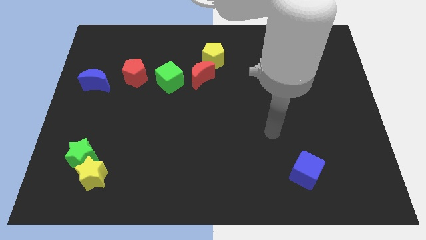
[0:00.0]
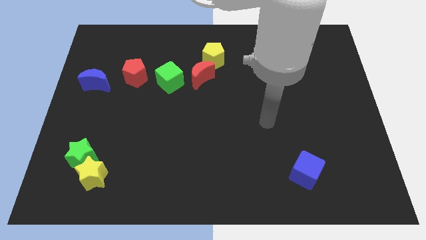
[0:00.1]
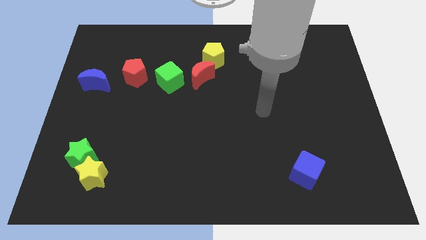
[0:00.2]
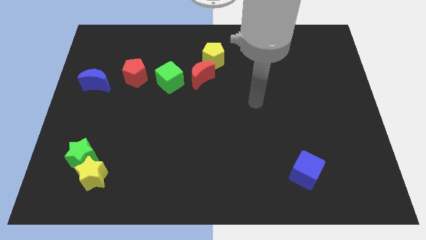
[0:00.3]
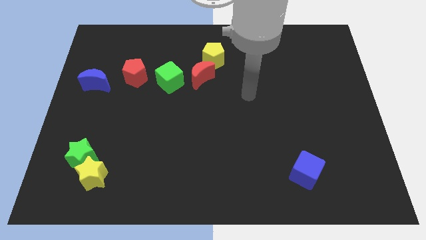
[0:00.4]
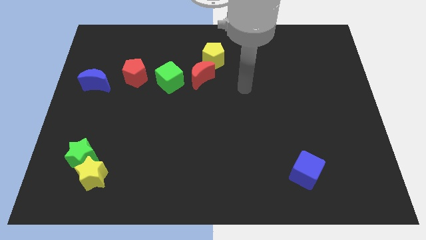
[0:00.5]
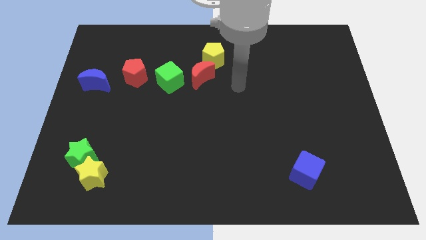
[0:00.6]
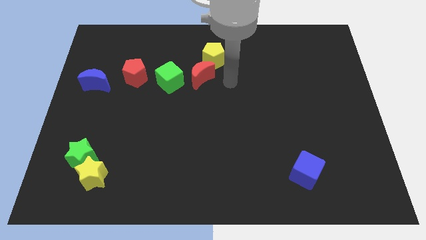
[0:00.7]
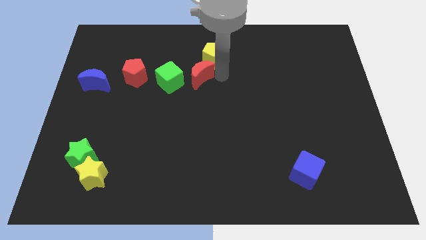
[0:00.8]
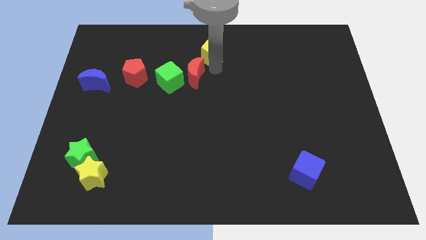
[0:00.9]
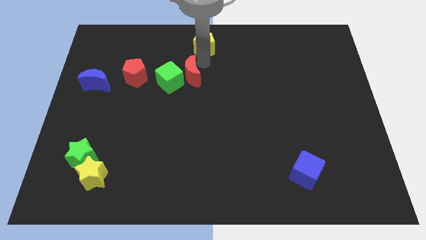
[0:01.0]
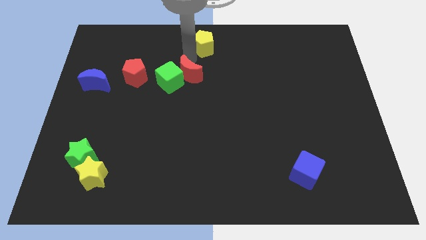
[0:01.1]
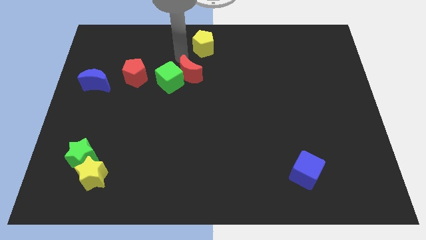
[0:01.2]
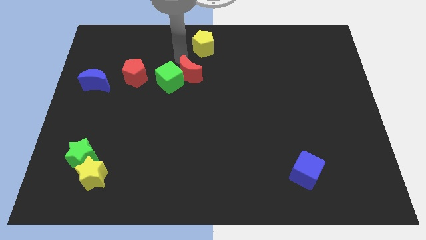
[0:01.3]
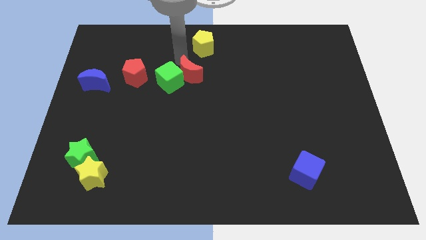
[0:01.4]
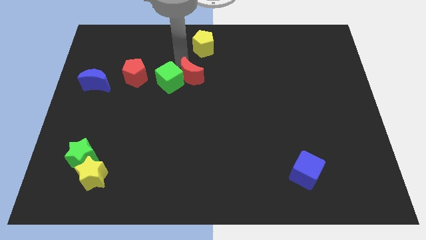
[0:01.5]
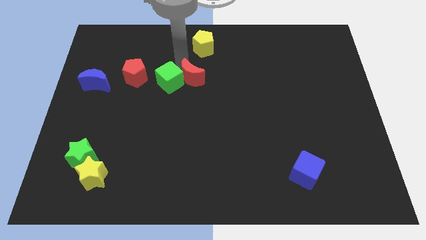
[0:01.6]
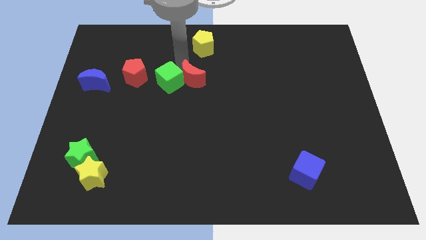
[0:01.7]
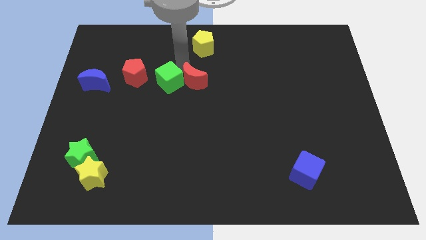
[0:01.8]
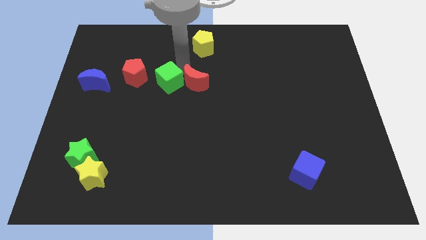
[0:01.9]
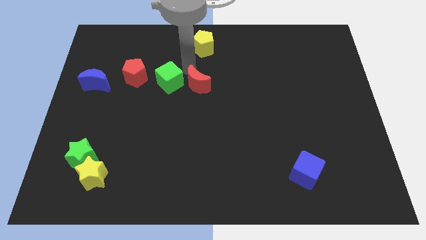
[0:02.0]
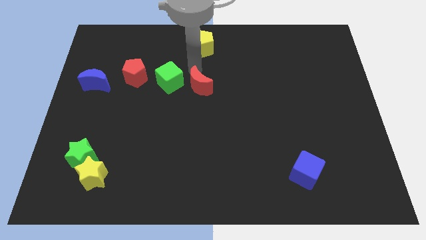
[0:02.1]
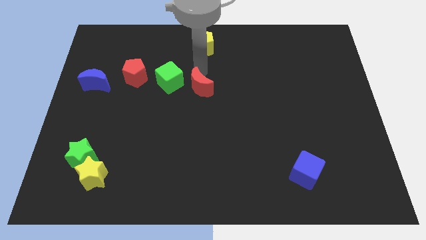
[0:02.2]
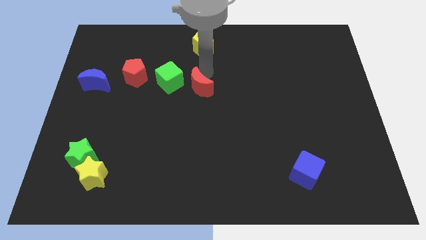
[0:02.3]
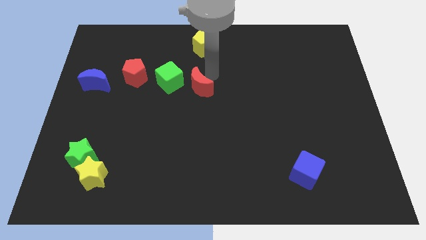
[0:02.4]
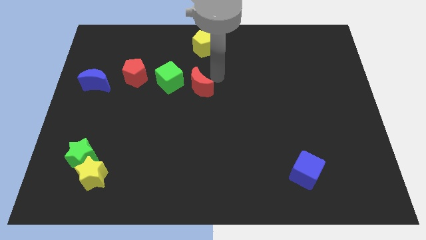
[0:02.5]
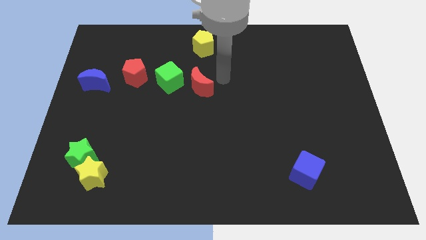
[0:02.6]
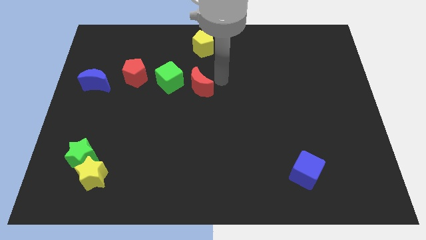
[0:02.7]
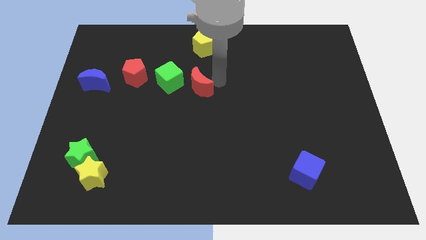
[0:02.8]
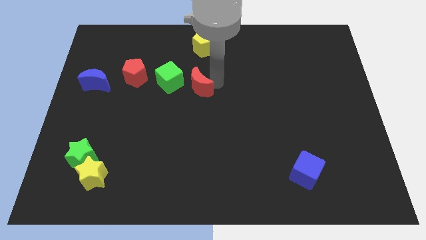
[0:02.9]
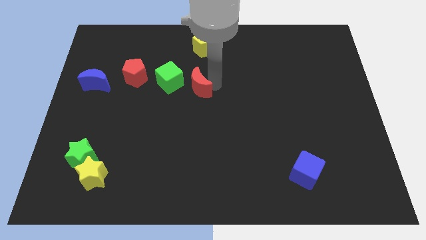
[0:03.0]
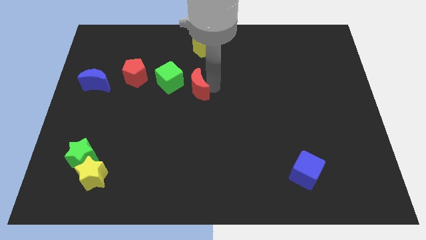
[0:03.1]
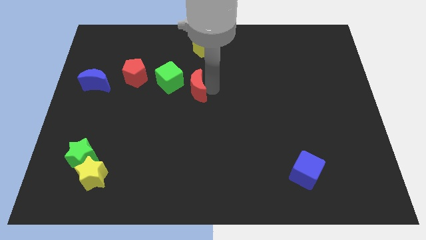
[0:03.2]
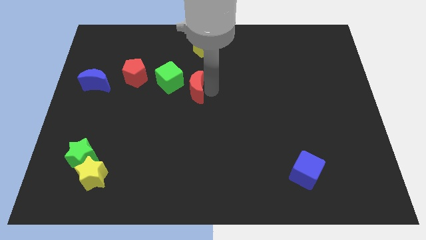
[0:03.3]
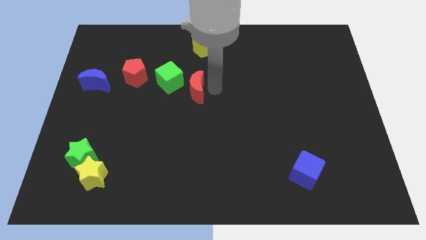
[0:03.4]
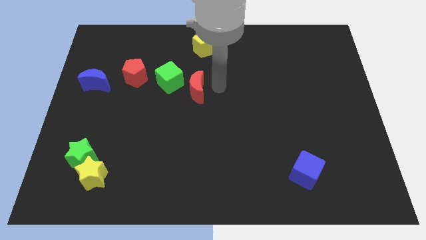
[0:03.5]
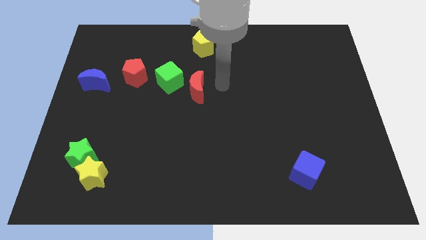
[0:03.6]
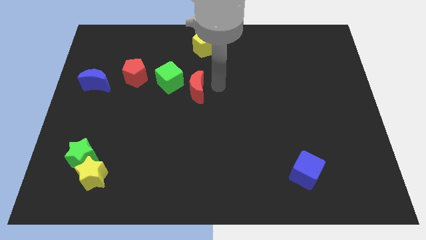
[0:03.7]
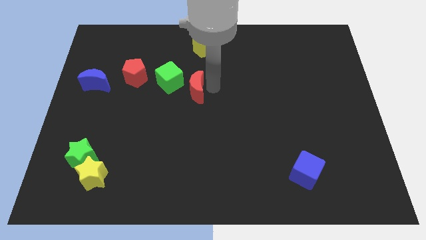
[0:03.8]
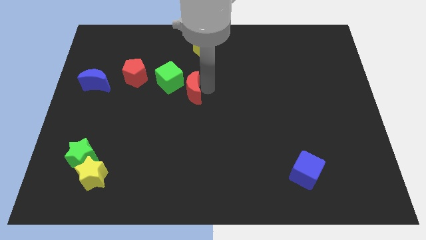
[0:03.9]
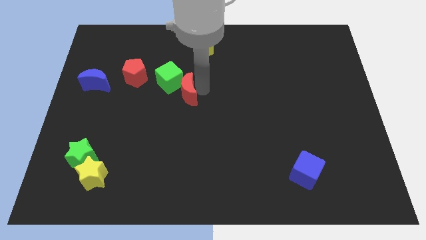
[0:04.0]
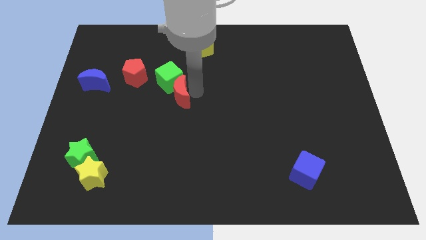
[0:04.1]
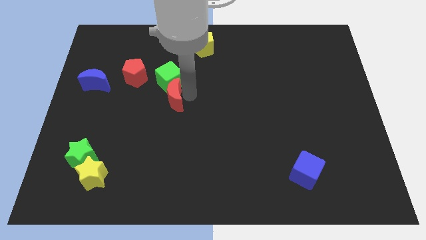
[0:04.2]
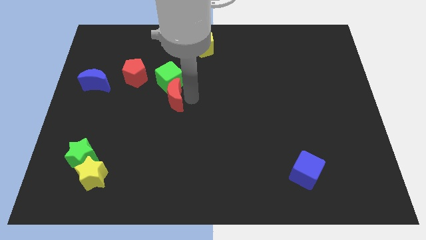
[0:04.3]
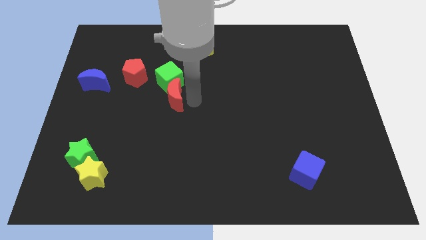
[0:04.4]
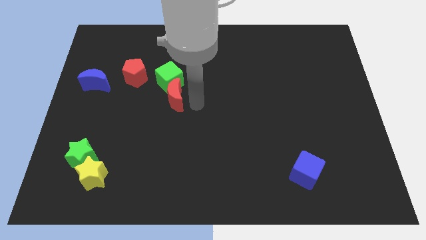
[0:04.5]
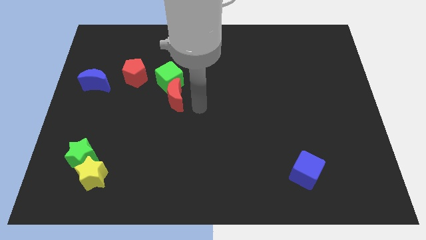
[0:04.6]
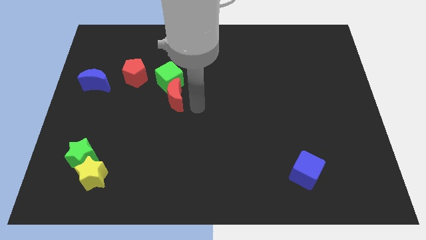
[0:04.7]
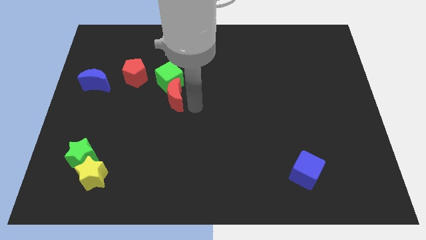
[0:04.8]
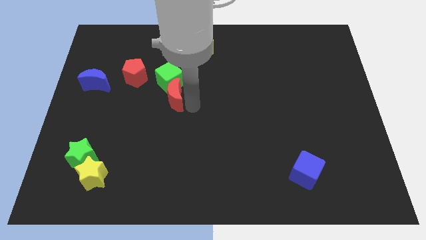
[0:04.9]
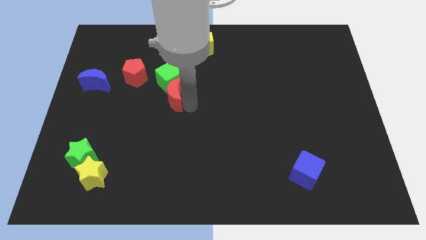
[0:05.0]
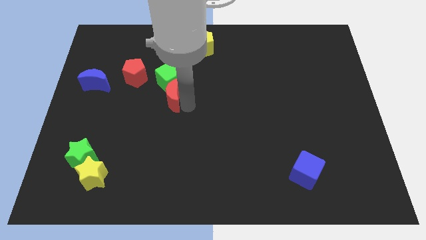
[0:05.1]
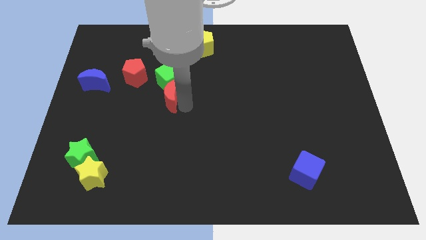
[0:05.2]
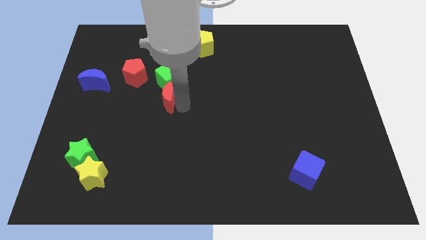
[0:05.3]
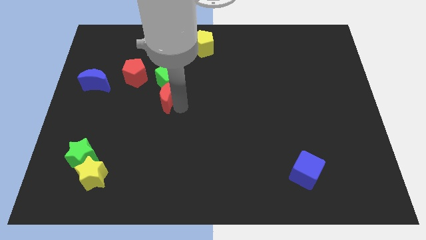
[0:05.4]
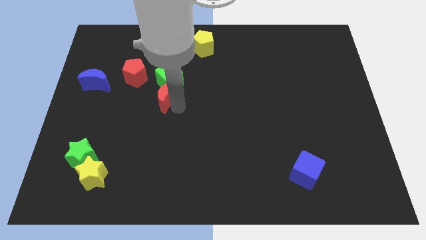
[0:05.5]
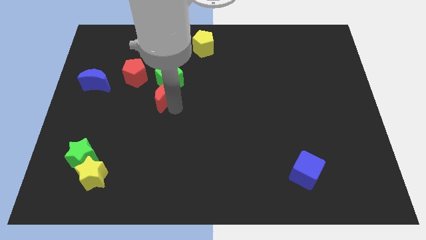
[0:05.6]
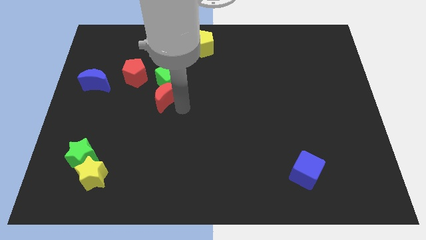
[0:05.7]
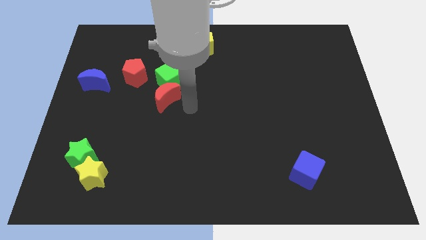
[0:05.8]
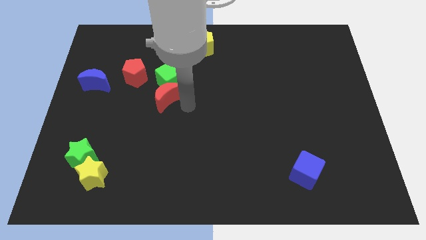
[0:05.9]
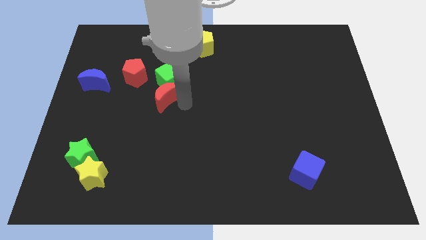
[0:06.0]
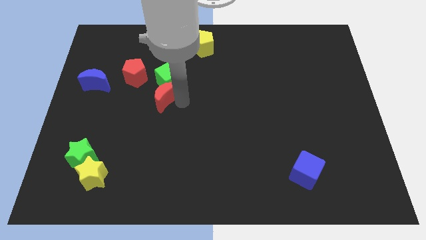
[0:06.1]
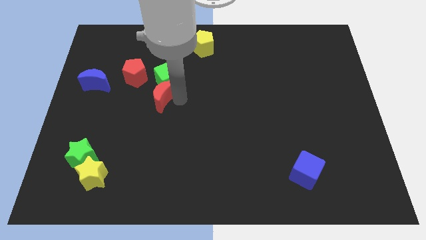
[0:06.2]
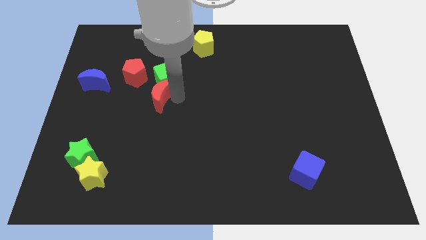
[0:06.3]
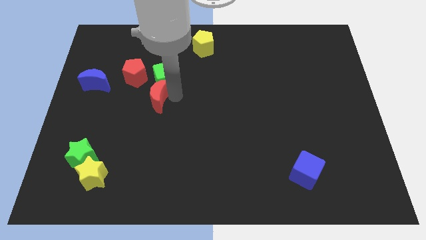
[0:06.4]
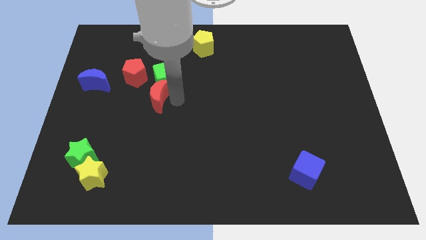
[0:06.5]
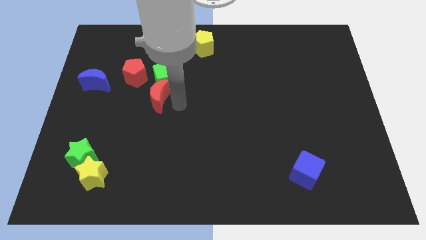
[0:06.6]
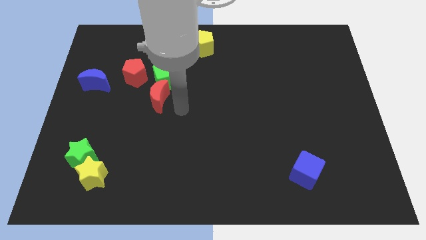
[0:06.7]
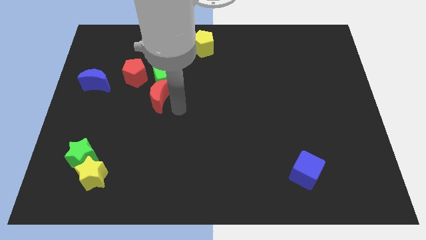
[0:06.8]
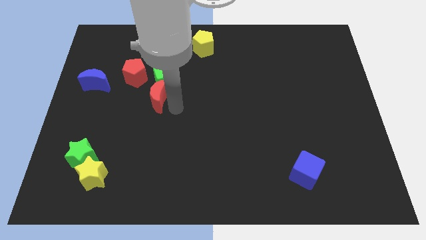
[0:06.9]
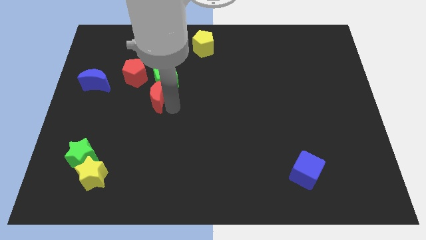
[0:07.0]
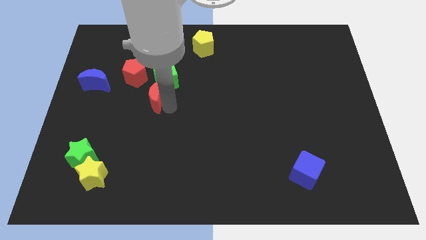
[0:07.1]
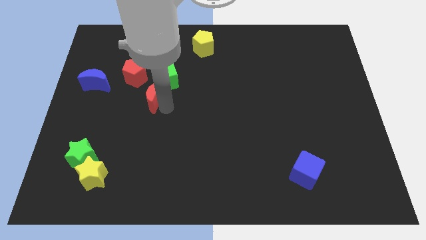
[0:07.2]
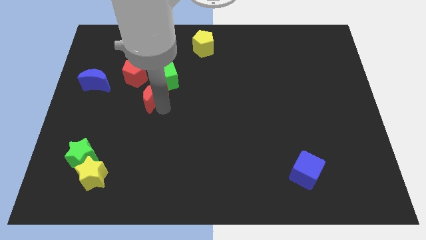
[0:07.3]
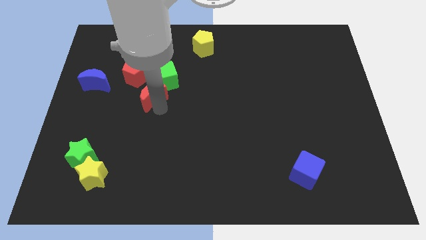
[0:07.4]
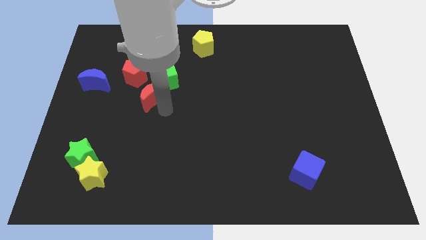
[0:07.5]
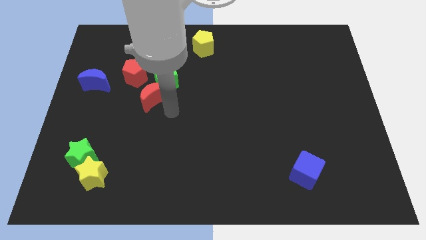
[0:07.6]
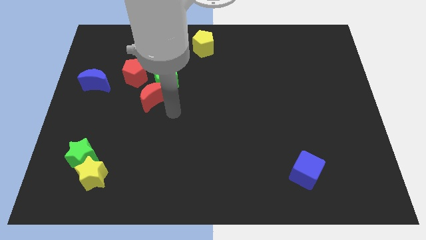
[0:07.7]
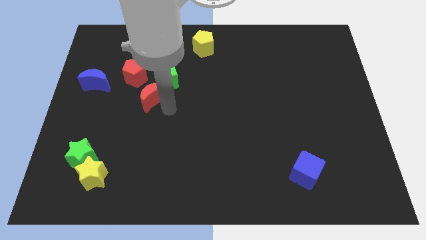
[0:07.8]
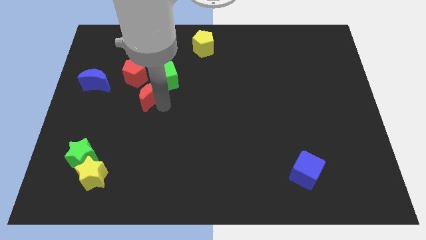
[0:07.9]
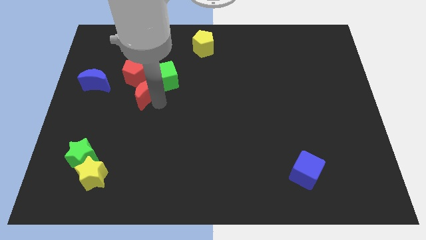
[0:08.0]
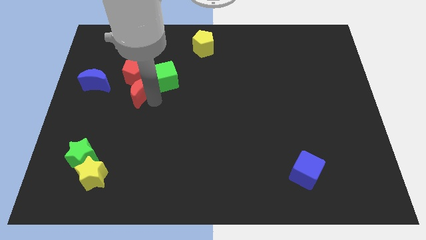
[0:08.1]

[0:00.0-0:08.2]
move the red moon to the left side of the green cube

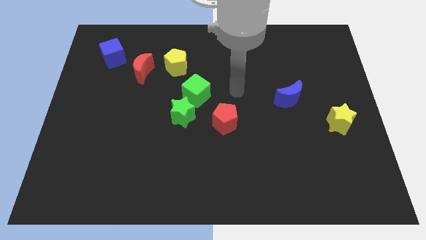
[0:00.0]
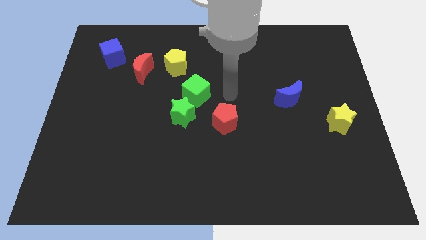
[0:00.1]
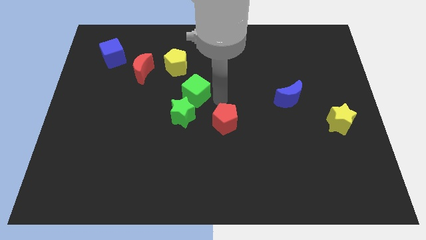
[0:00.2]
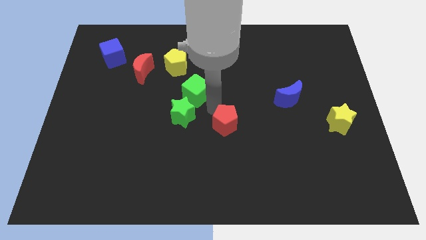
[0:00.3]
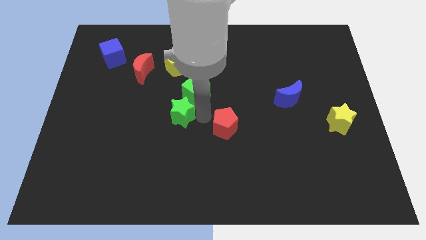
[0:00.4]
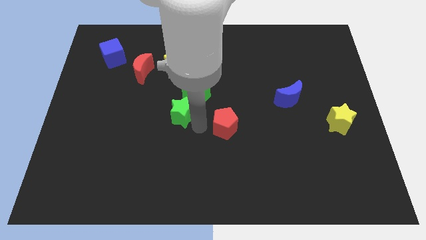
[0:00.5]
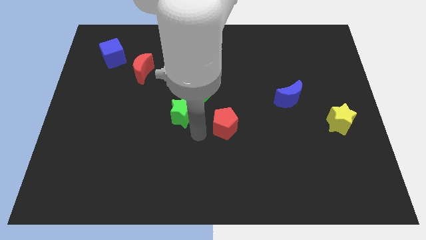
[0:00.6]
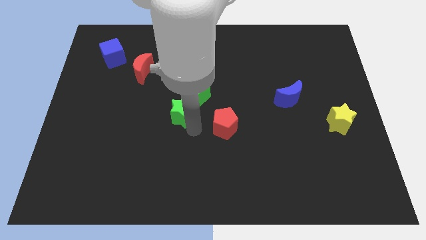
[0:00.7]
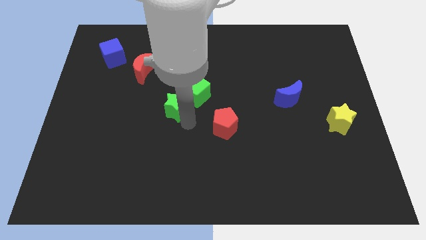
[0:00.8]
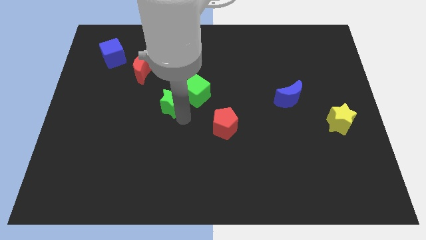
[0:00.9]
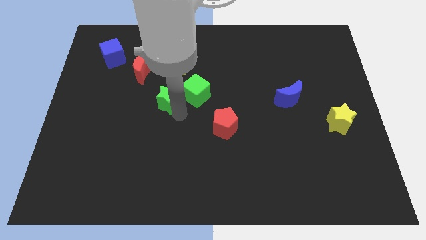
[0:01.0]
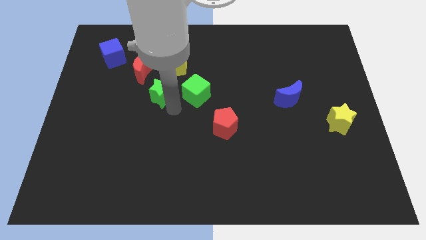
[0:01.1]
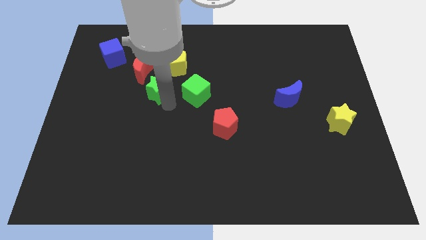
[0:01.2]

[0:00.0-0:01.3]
put the green star to the bottom left side of the yellow pentagon
